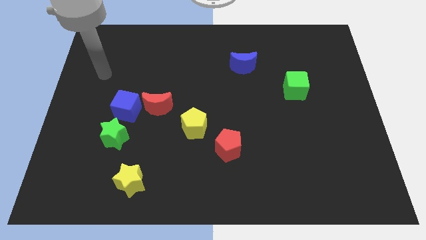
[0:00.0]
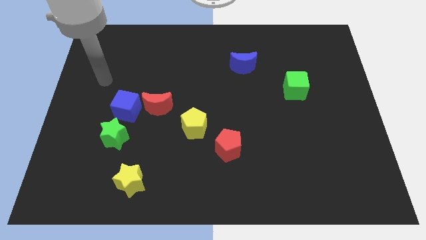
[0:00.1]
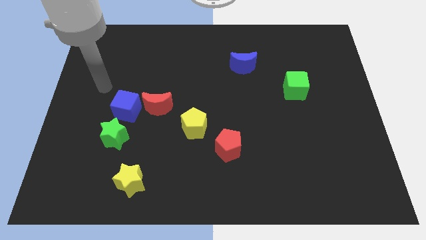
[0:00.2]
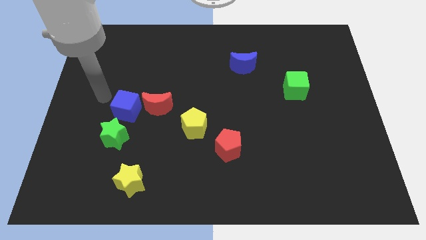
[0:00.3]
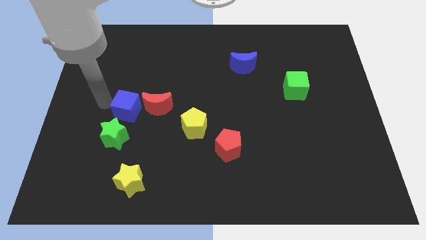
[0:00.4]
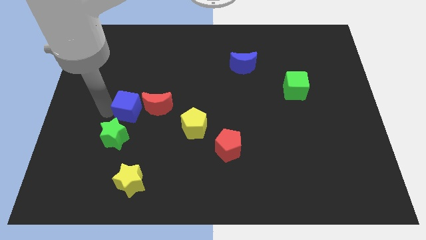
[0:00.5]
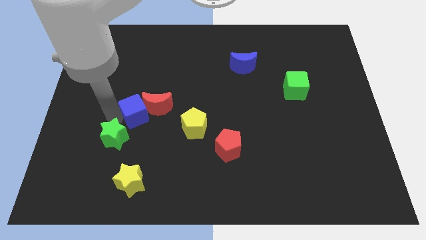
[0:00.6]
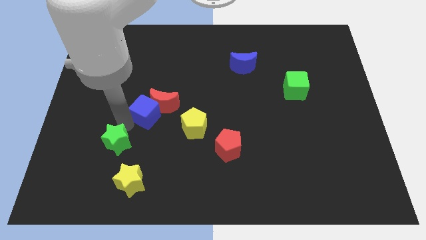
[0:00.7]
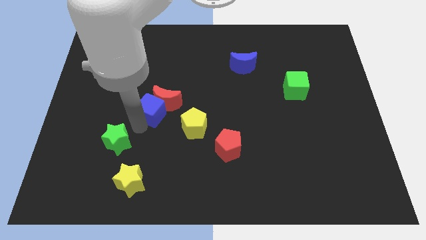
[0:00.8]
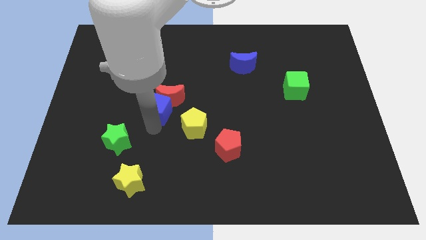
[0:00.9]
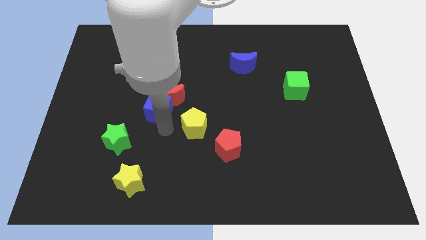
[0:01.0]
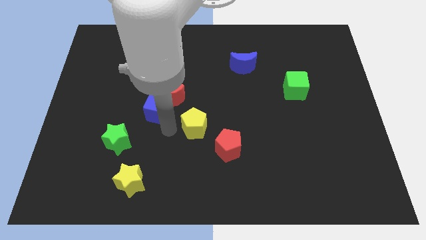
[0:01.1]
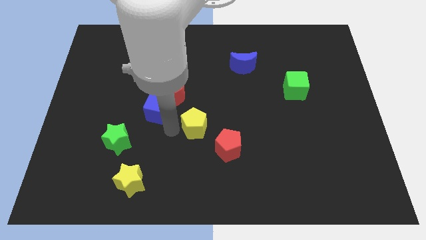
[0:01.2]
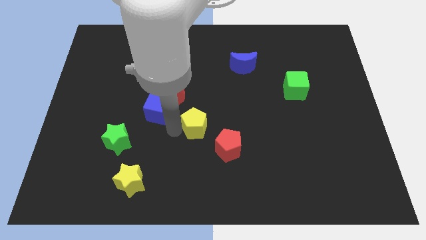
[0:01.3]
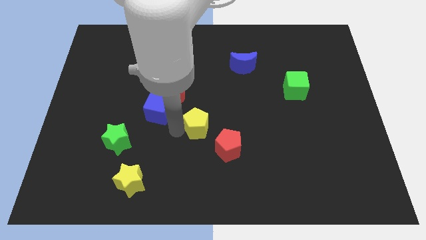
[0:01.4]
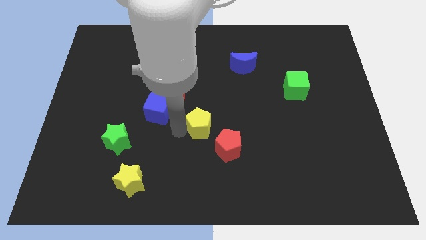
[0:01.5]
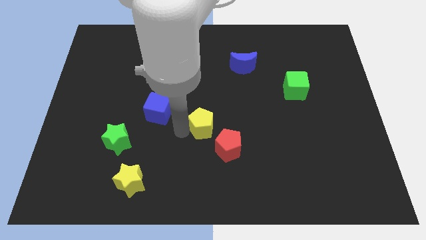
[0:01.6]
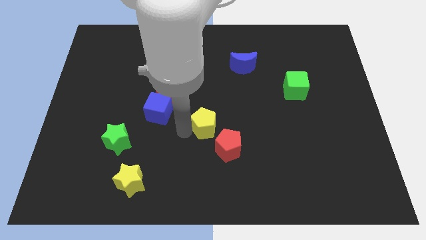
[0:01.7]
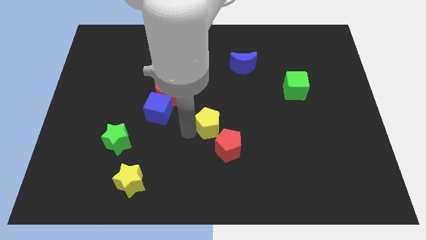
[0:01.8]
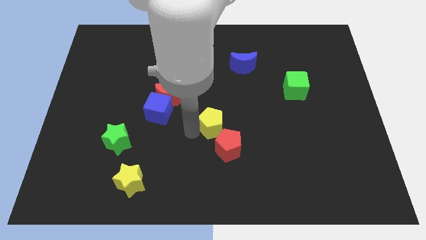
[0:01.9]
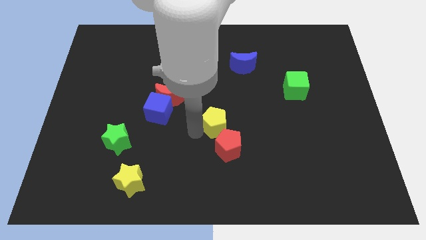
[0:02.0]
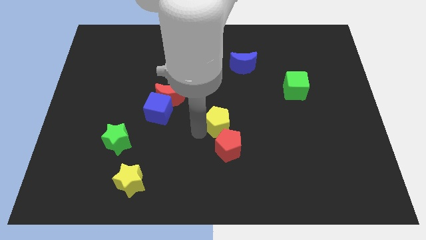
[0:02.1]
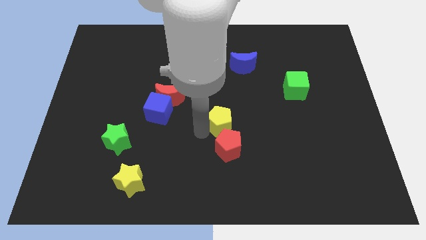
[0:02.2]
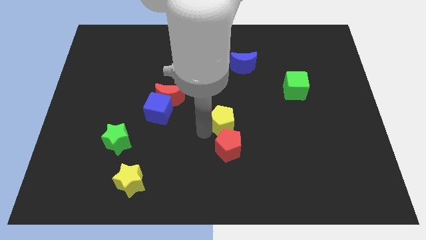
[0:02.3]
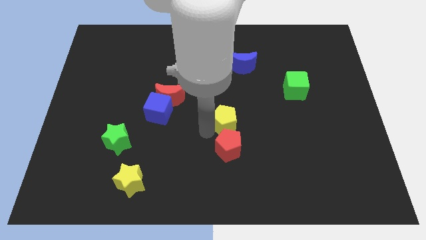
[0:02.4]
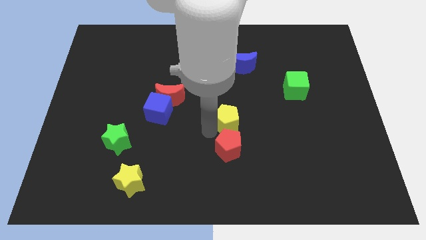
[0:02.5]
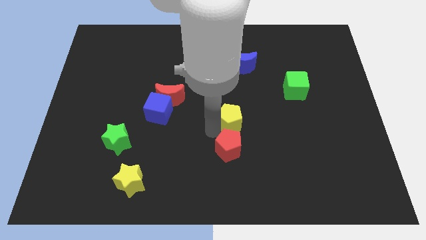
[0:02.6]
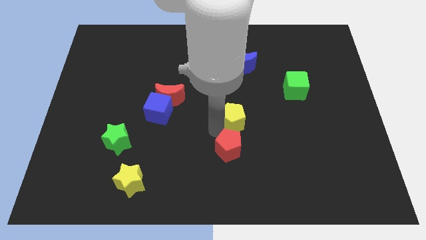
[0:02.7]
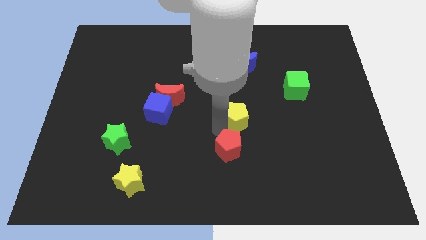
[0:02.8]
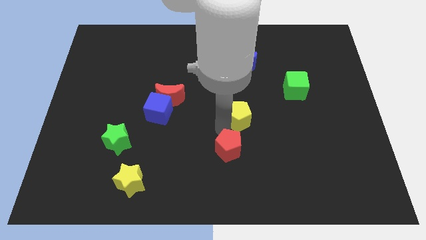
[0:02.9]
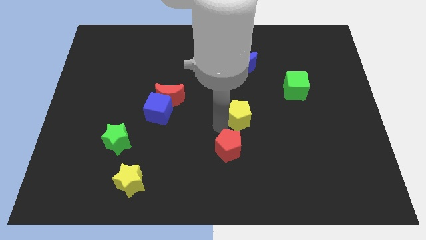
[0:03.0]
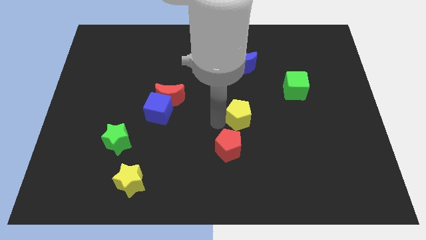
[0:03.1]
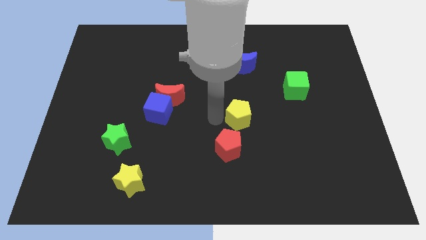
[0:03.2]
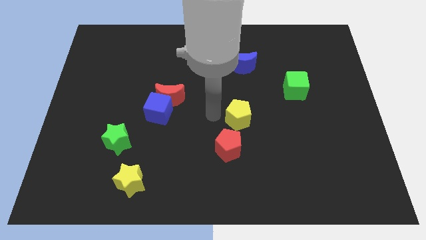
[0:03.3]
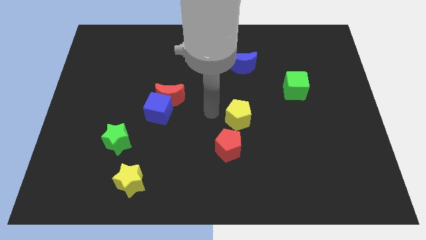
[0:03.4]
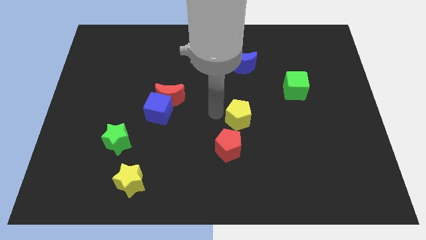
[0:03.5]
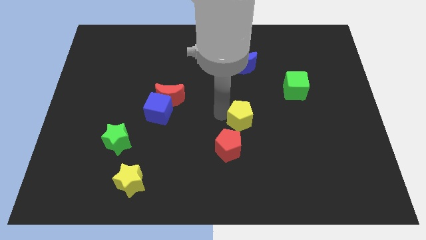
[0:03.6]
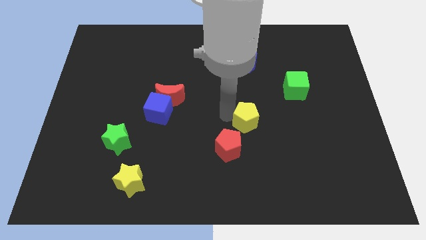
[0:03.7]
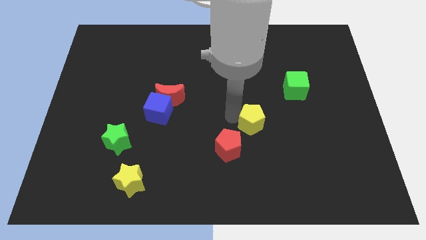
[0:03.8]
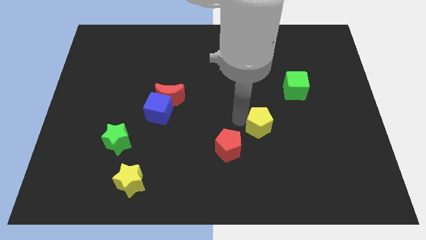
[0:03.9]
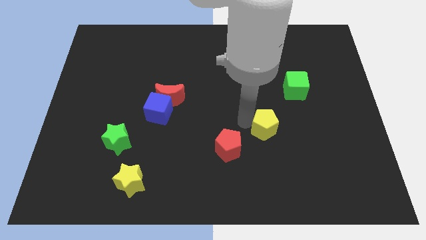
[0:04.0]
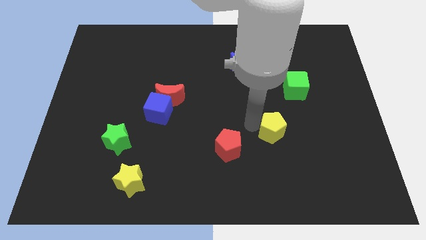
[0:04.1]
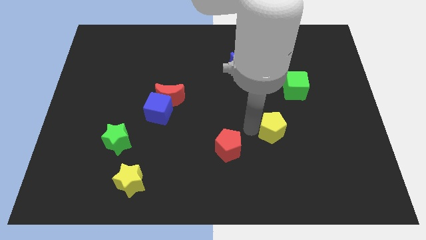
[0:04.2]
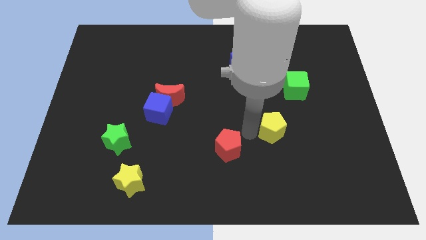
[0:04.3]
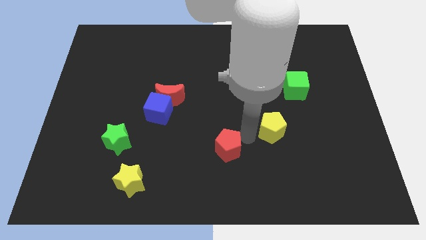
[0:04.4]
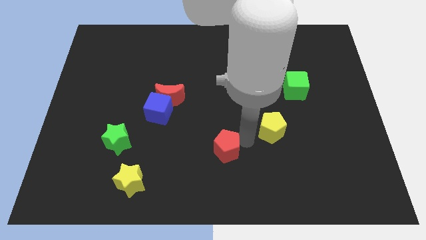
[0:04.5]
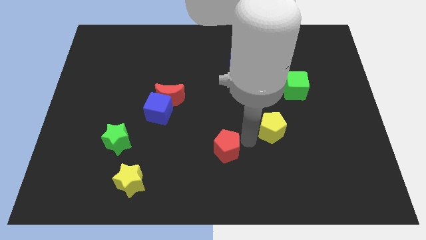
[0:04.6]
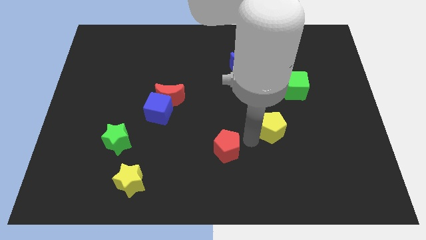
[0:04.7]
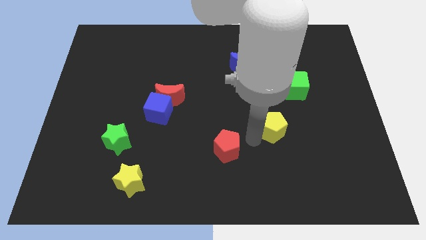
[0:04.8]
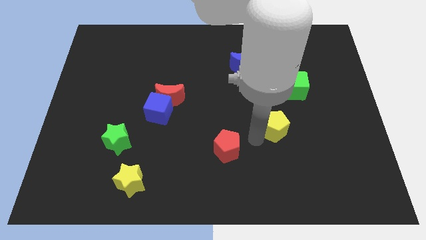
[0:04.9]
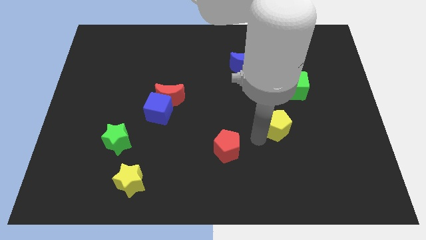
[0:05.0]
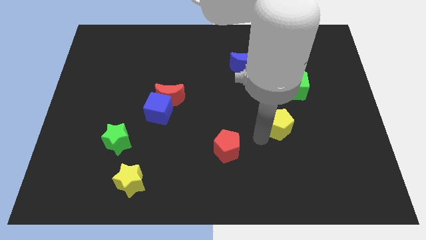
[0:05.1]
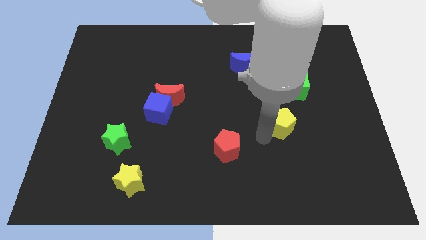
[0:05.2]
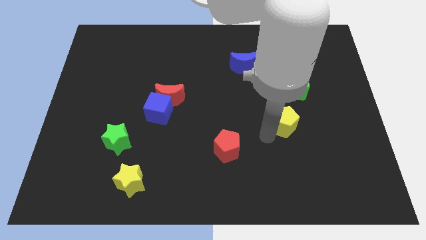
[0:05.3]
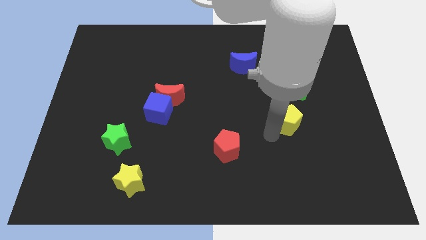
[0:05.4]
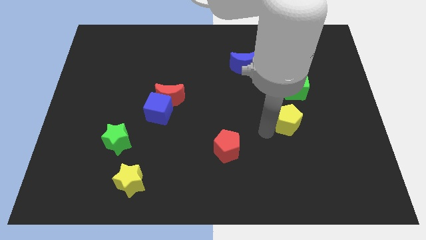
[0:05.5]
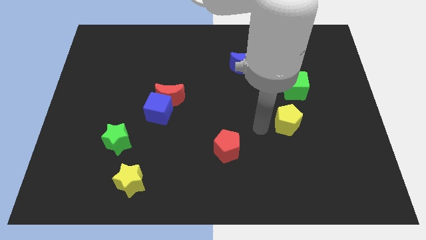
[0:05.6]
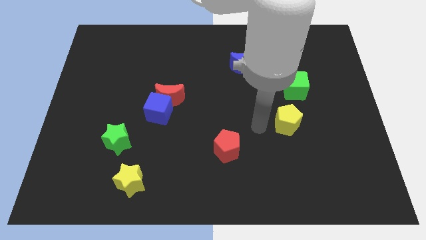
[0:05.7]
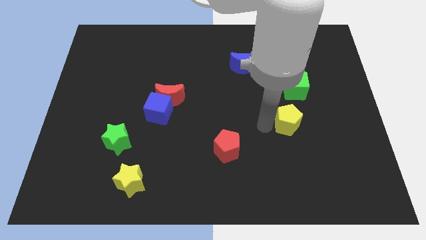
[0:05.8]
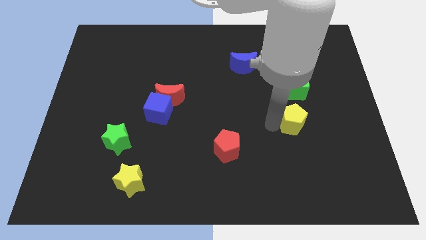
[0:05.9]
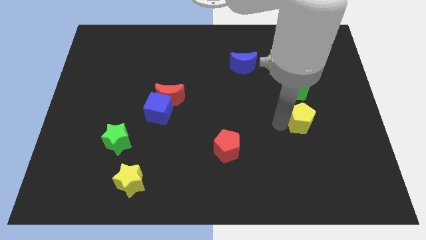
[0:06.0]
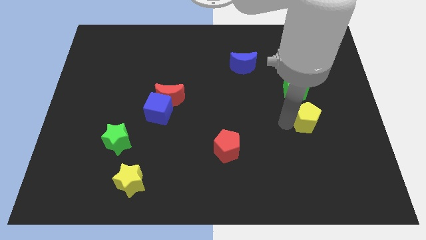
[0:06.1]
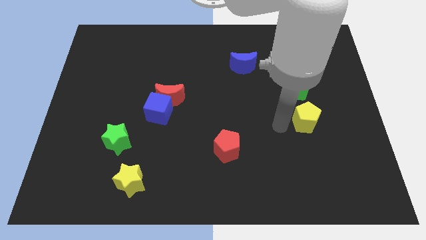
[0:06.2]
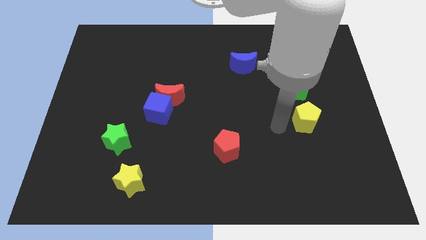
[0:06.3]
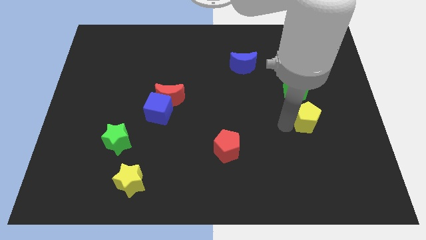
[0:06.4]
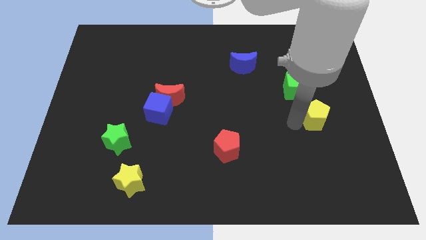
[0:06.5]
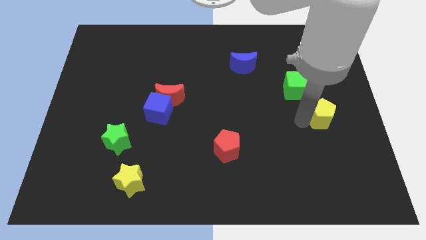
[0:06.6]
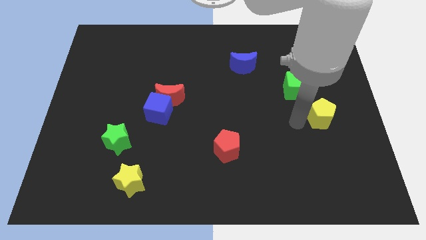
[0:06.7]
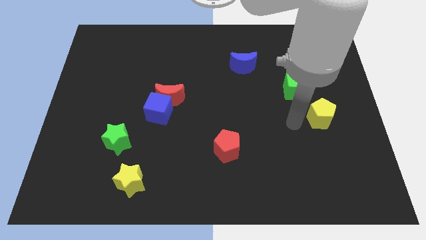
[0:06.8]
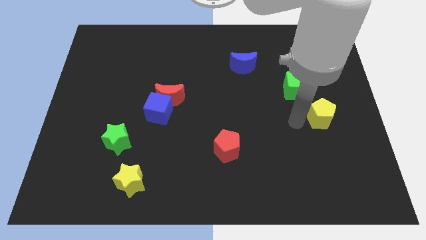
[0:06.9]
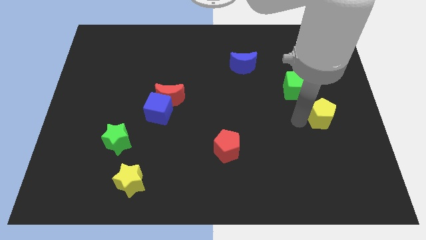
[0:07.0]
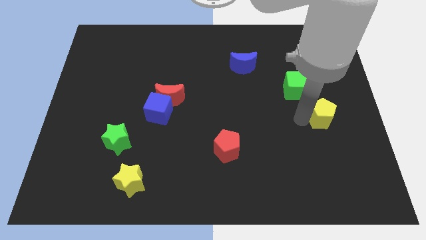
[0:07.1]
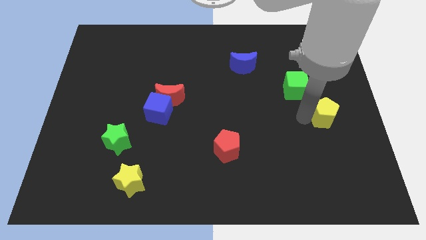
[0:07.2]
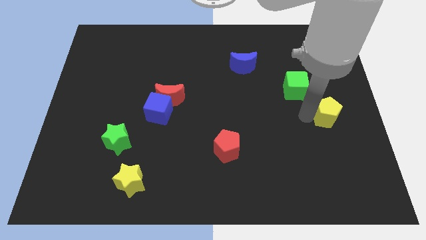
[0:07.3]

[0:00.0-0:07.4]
push the yellow pentagon to the right side of the board
